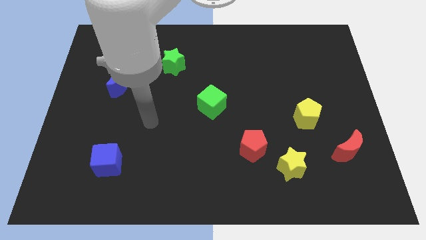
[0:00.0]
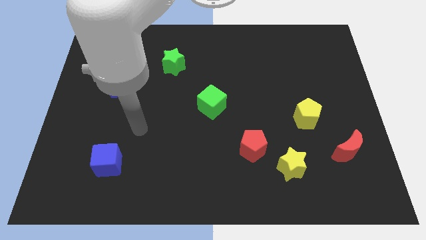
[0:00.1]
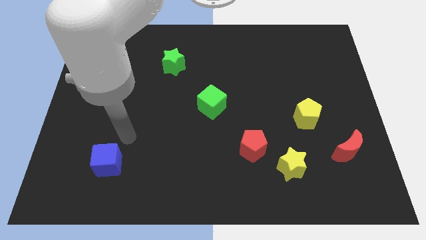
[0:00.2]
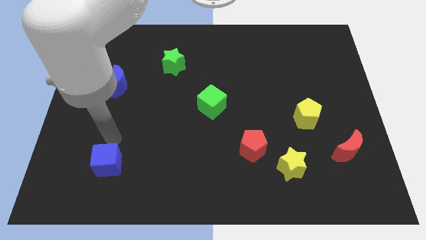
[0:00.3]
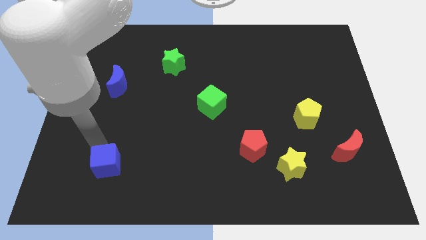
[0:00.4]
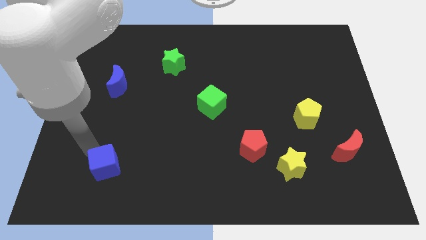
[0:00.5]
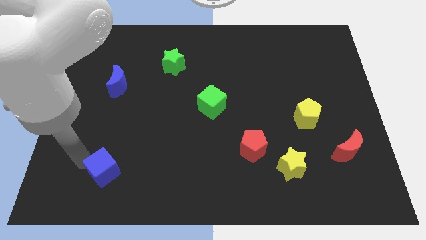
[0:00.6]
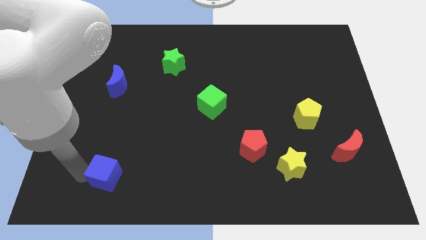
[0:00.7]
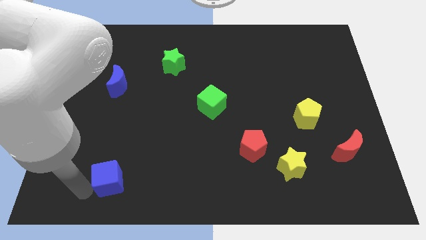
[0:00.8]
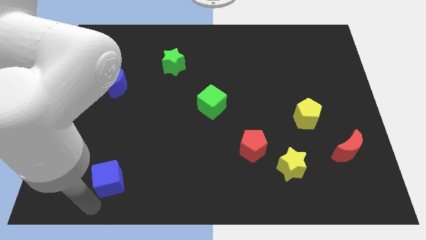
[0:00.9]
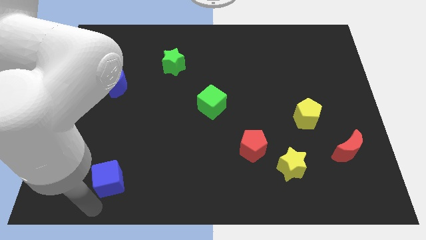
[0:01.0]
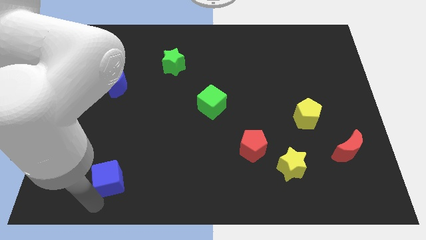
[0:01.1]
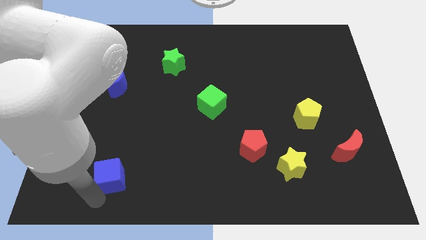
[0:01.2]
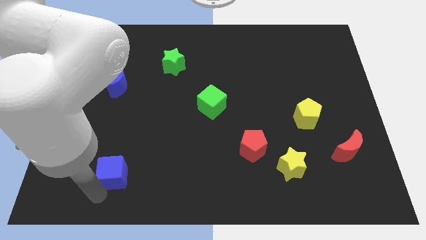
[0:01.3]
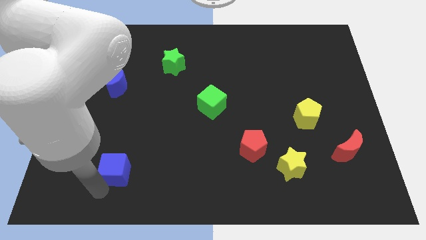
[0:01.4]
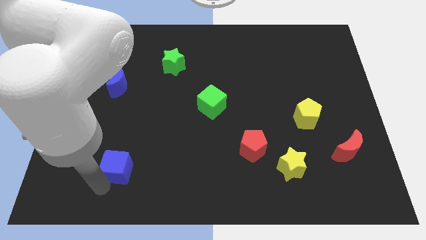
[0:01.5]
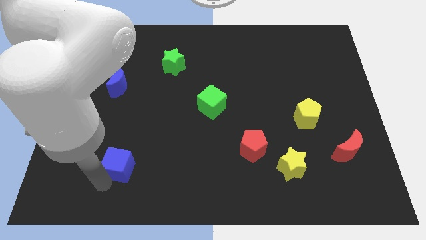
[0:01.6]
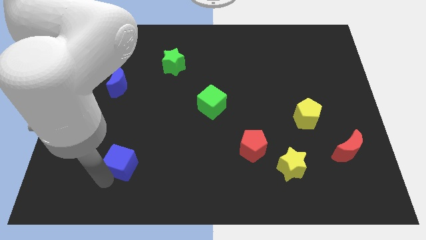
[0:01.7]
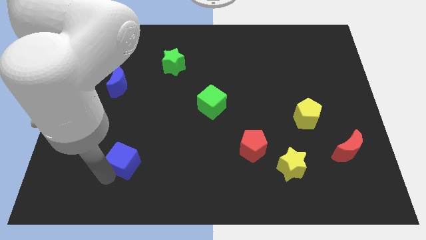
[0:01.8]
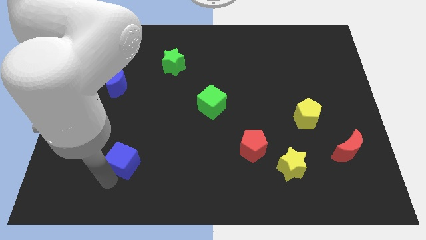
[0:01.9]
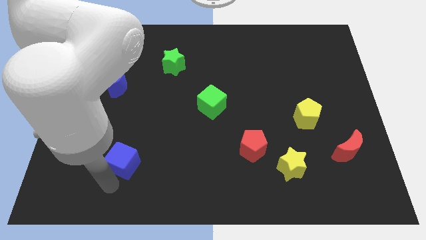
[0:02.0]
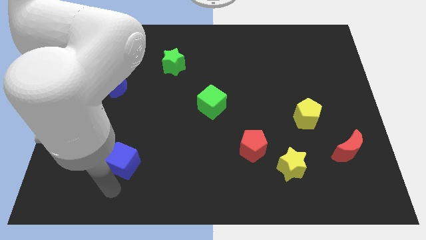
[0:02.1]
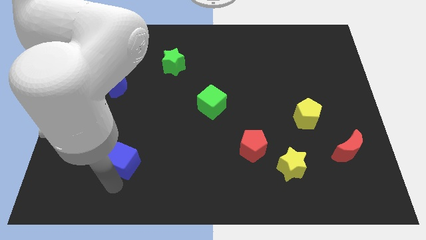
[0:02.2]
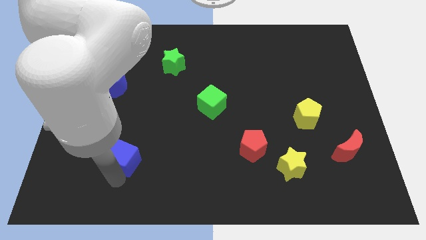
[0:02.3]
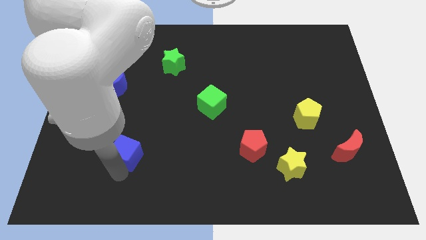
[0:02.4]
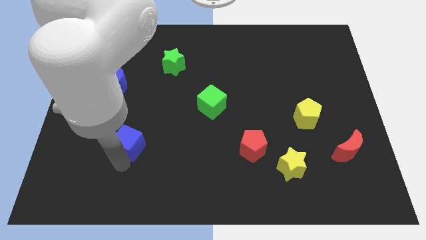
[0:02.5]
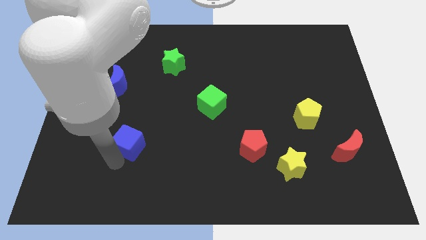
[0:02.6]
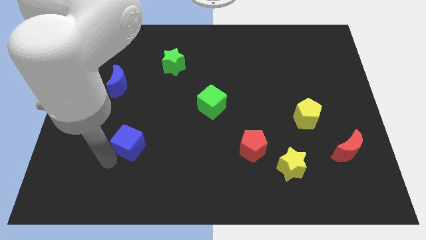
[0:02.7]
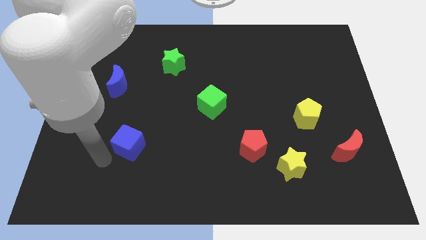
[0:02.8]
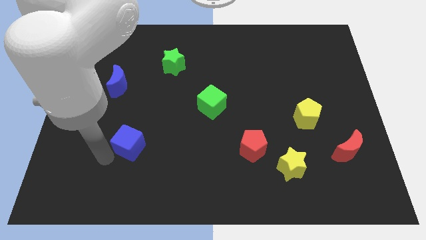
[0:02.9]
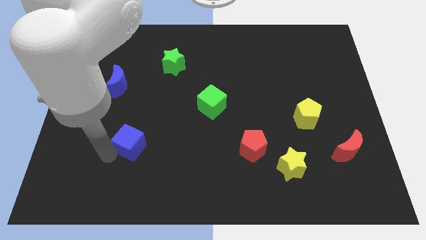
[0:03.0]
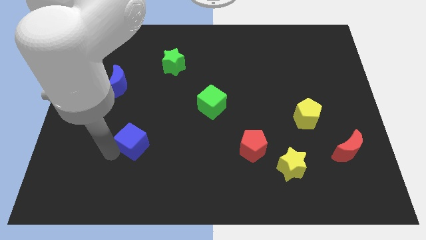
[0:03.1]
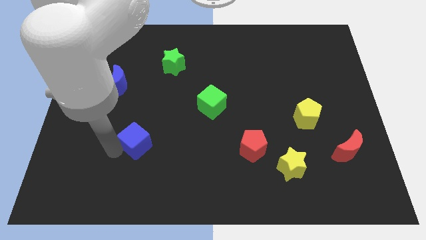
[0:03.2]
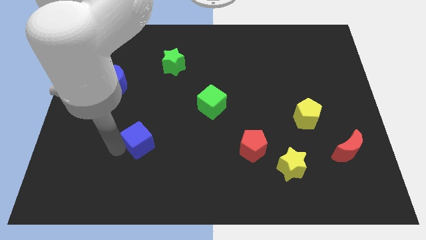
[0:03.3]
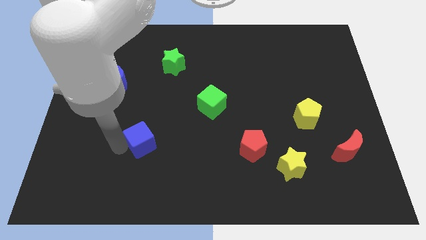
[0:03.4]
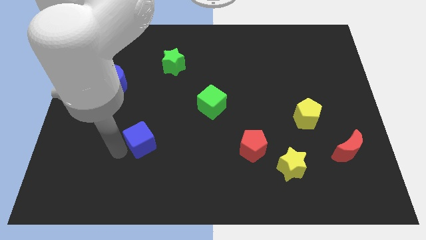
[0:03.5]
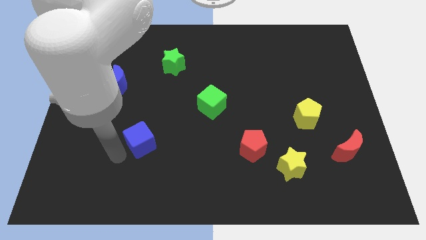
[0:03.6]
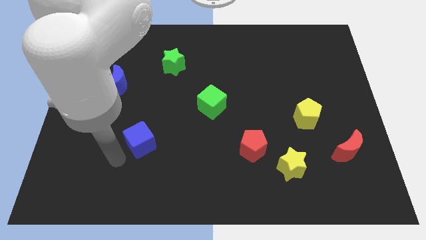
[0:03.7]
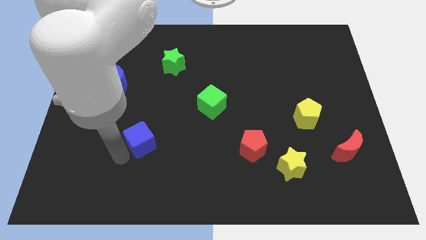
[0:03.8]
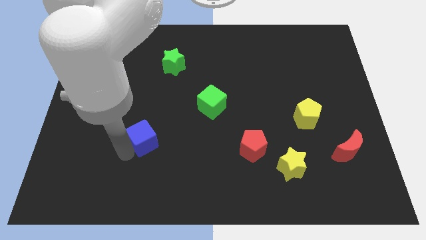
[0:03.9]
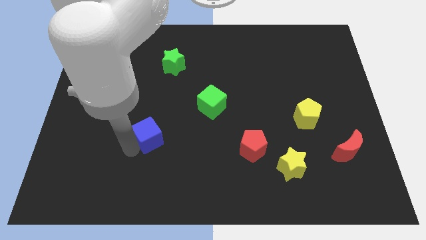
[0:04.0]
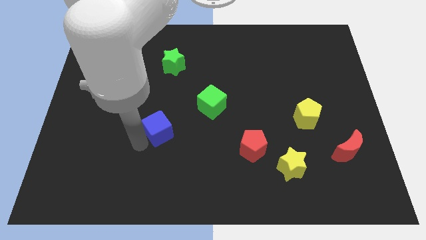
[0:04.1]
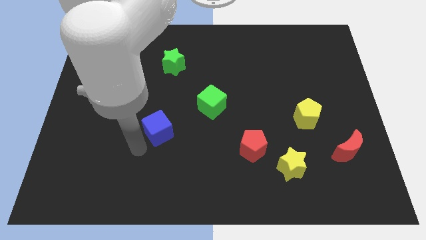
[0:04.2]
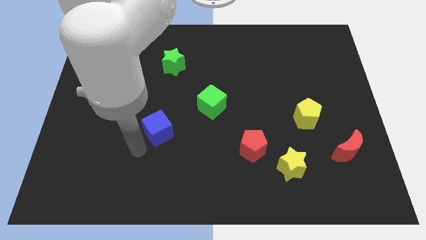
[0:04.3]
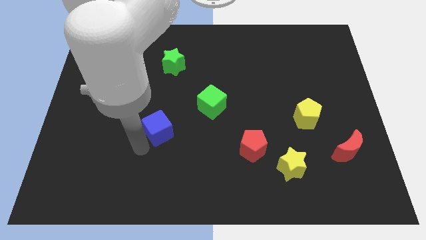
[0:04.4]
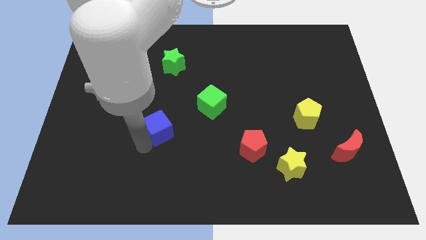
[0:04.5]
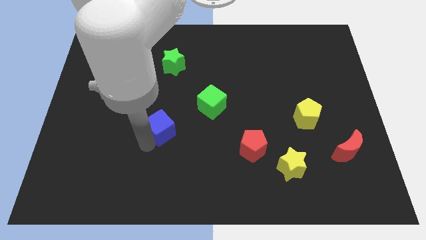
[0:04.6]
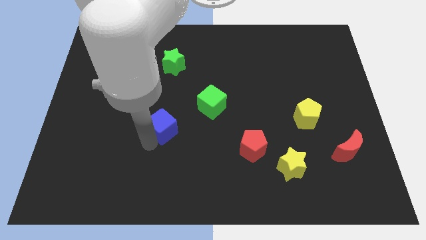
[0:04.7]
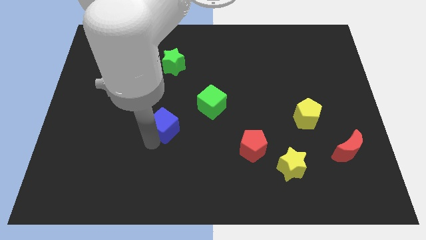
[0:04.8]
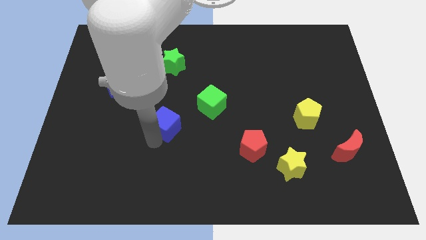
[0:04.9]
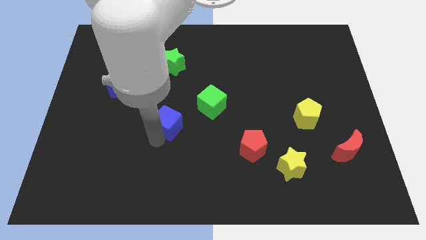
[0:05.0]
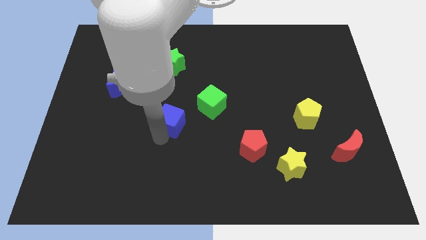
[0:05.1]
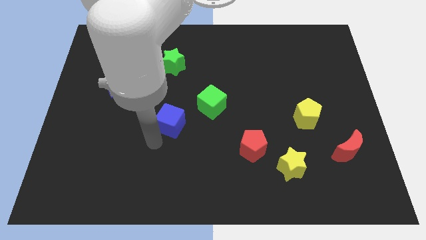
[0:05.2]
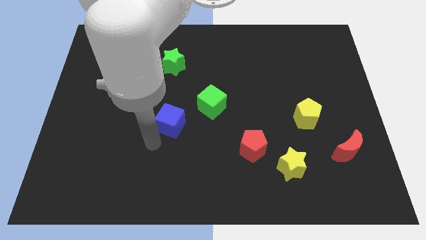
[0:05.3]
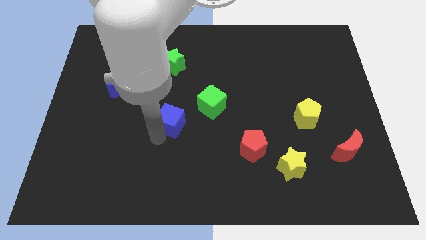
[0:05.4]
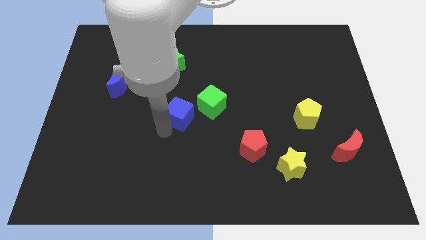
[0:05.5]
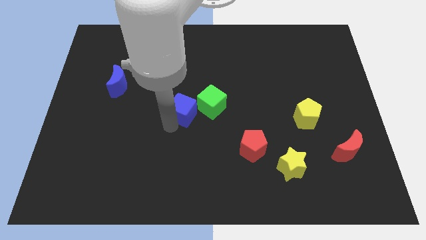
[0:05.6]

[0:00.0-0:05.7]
move the blue cube up and right diagonally

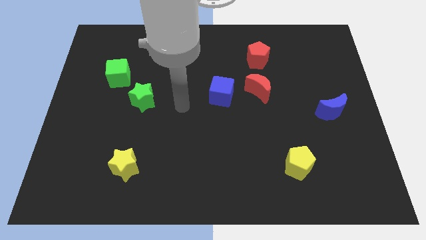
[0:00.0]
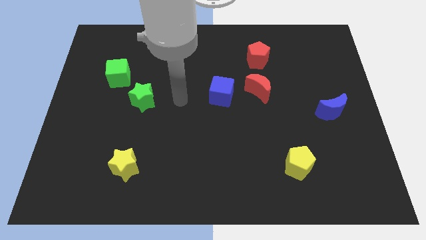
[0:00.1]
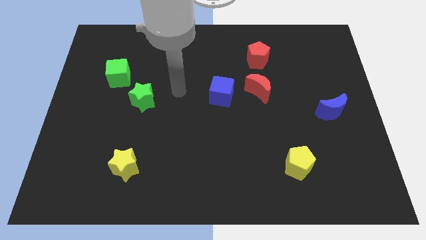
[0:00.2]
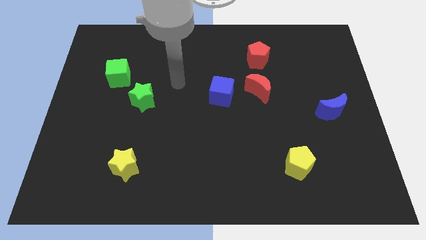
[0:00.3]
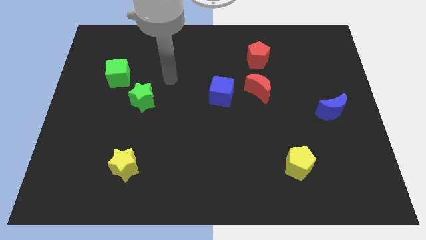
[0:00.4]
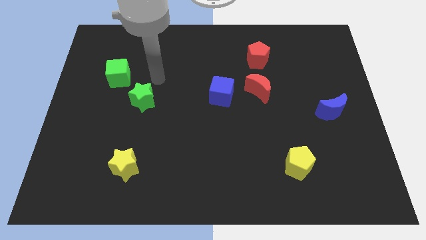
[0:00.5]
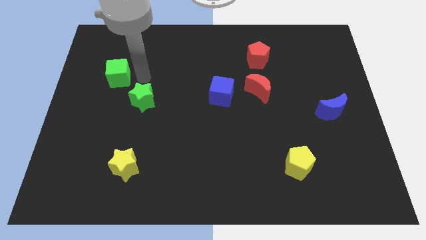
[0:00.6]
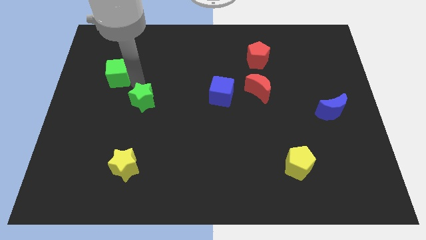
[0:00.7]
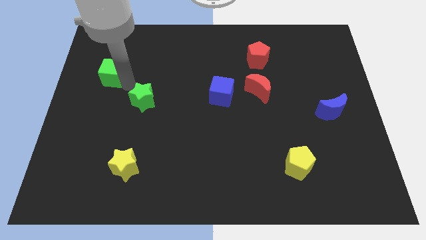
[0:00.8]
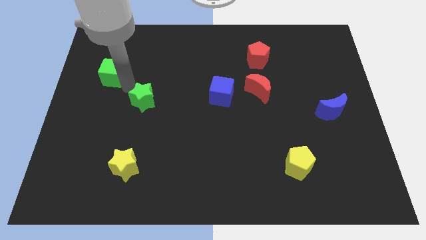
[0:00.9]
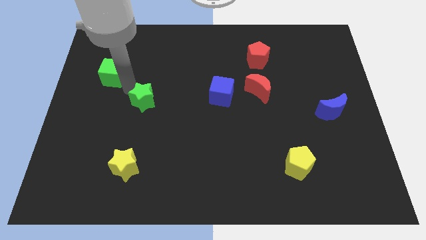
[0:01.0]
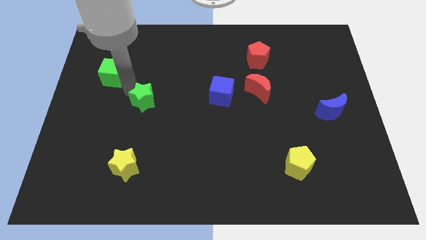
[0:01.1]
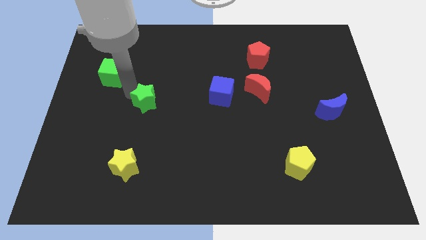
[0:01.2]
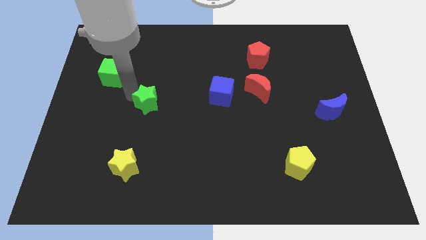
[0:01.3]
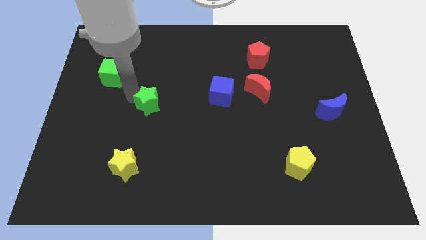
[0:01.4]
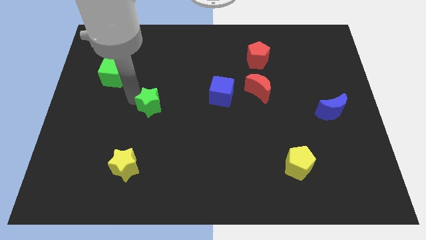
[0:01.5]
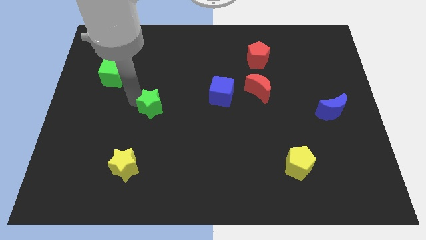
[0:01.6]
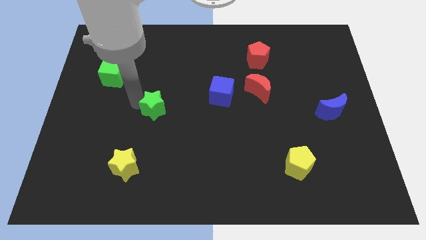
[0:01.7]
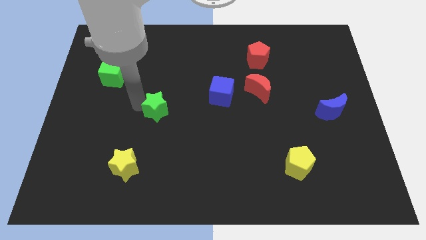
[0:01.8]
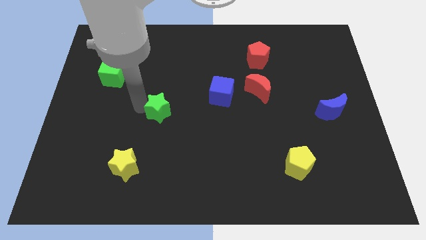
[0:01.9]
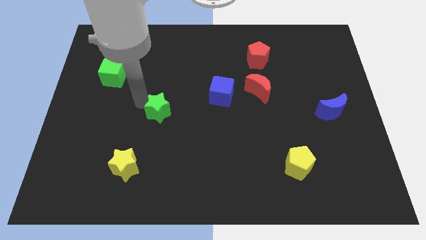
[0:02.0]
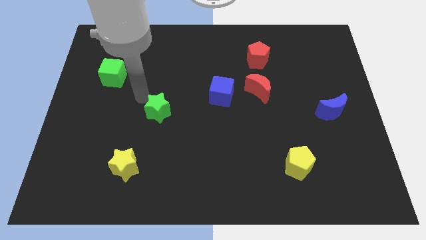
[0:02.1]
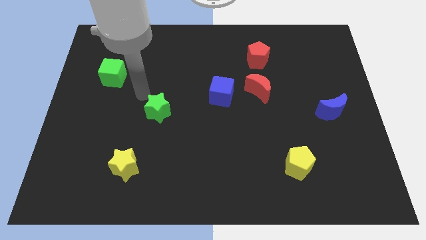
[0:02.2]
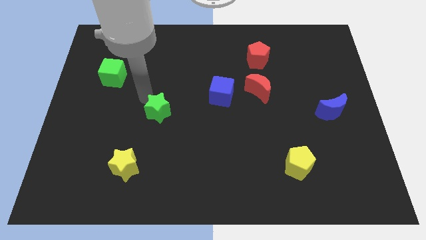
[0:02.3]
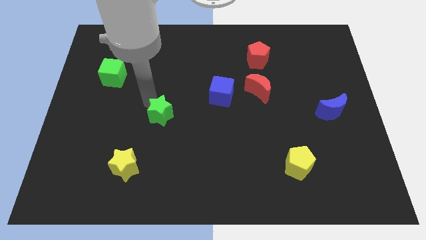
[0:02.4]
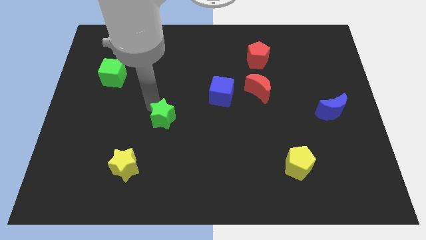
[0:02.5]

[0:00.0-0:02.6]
push the green star downwards and right a little bit
